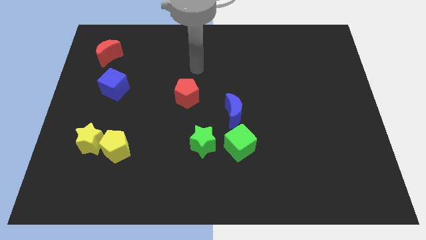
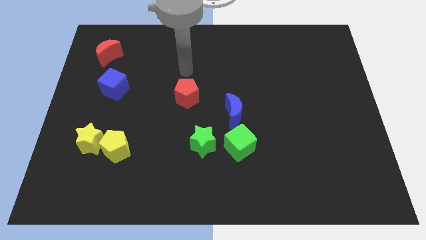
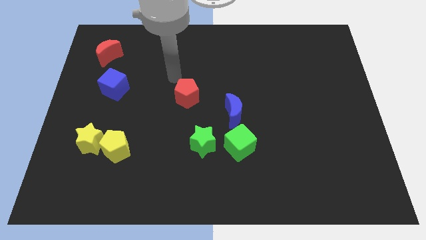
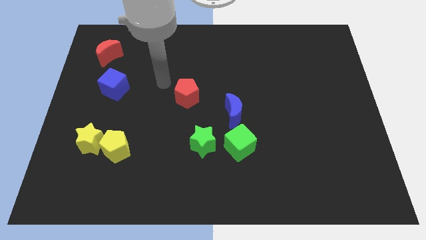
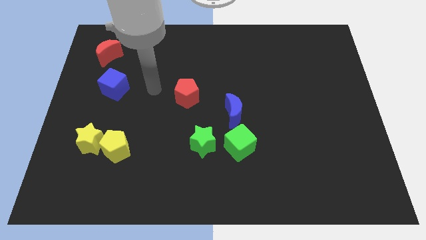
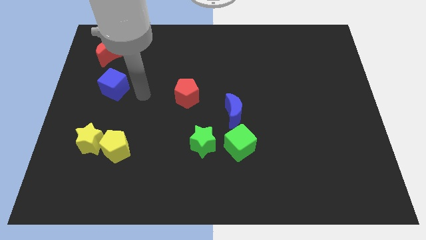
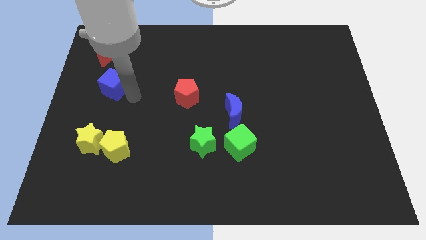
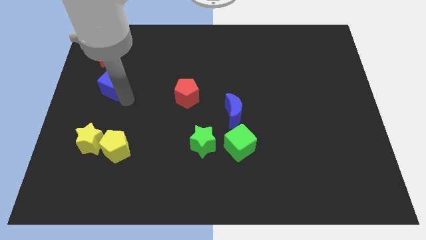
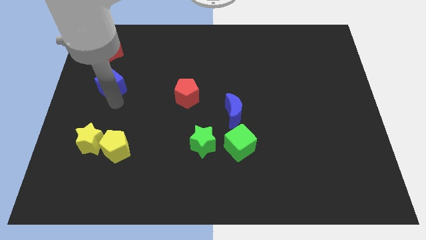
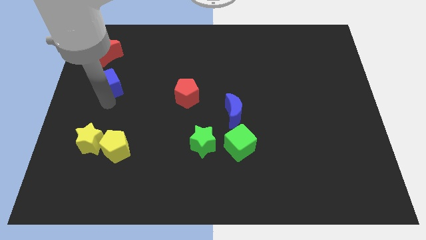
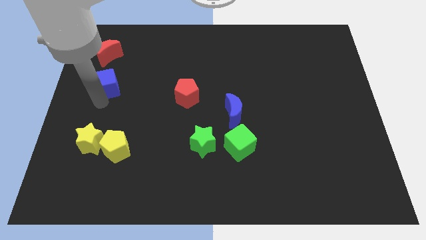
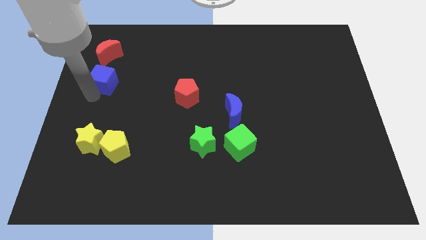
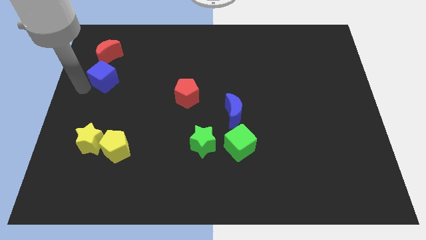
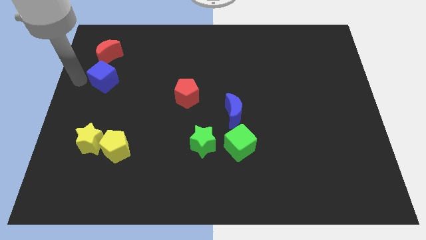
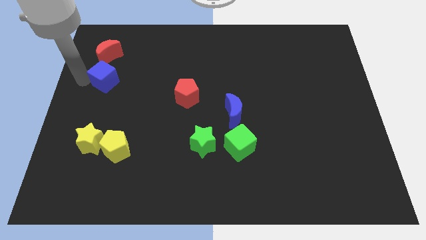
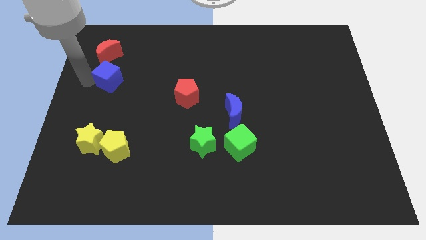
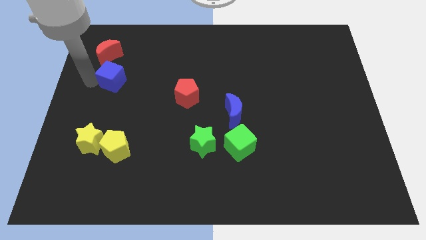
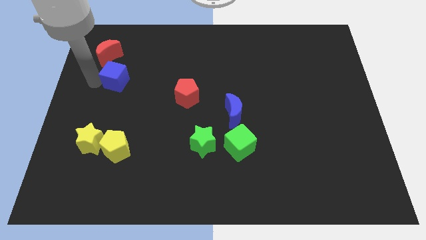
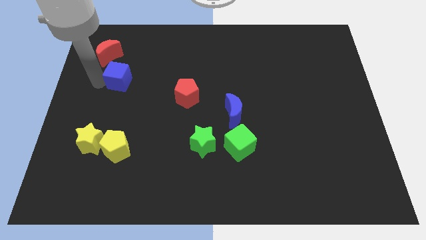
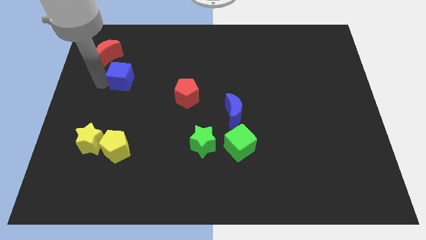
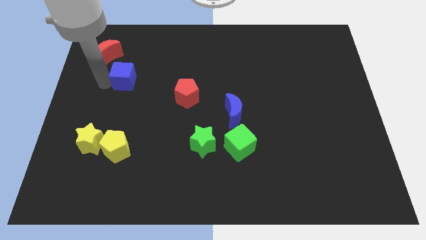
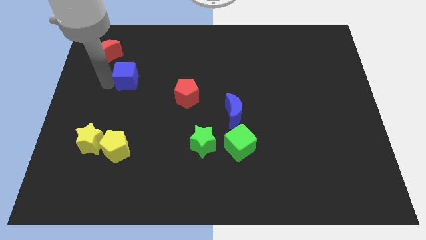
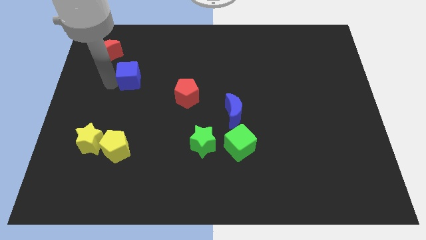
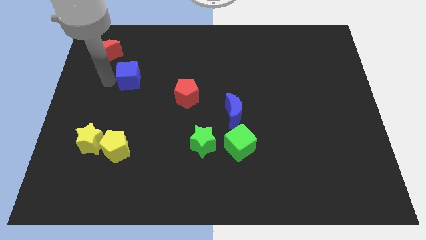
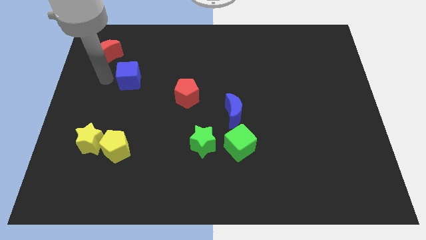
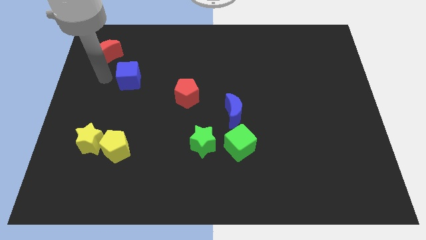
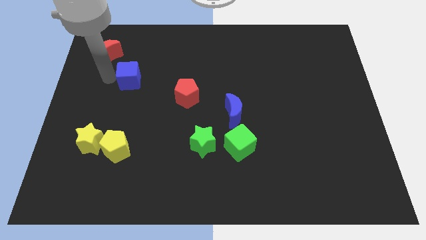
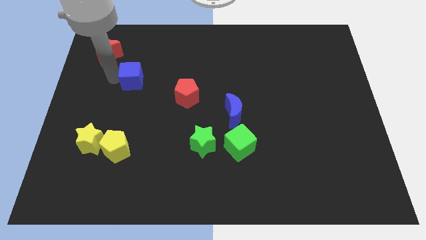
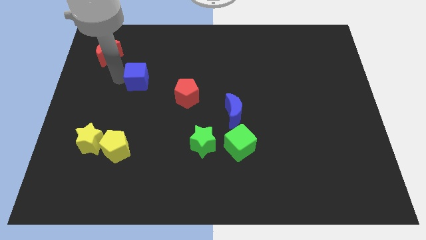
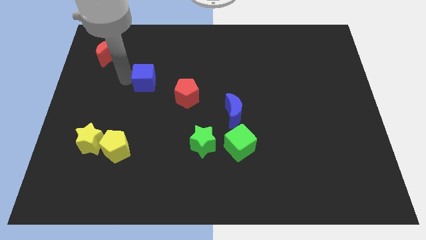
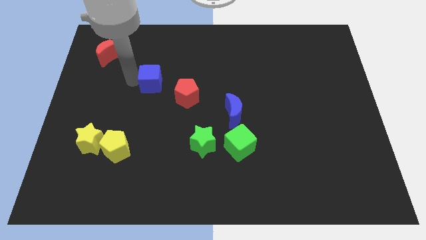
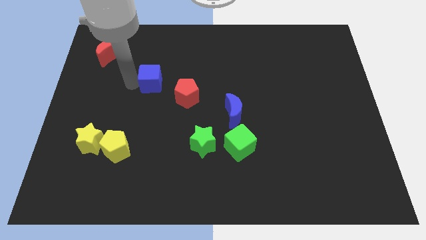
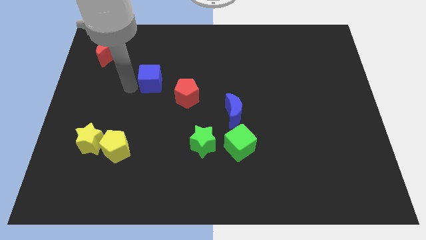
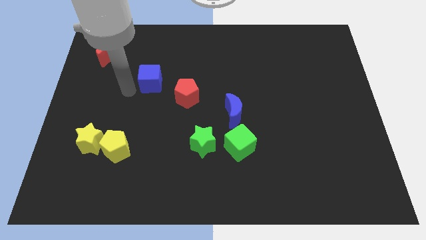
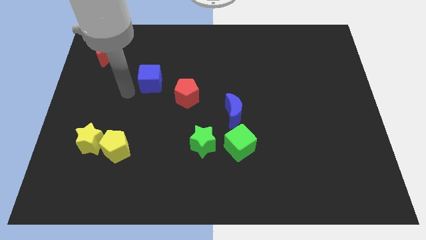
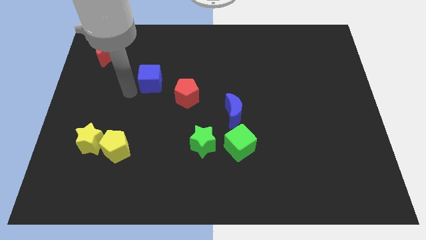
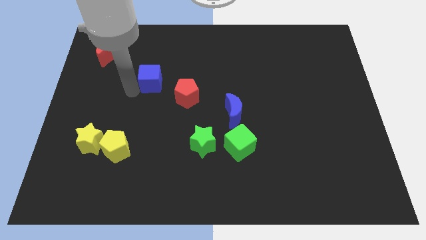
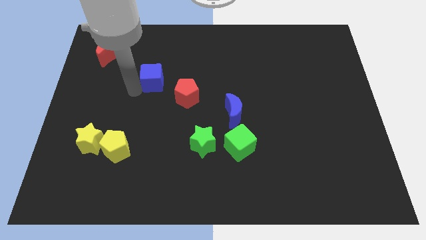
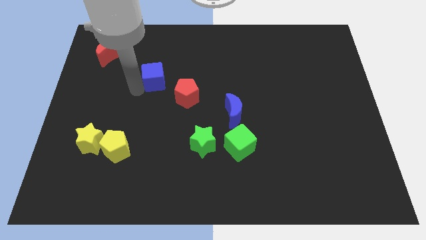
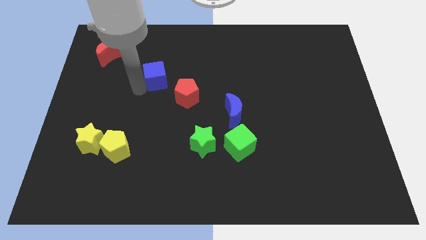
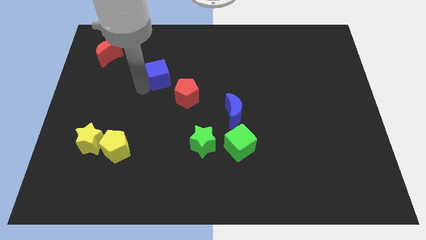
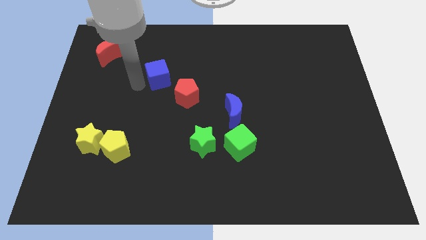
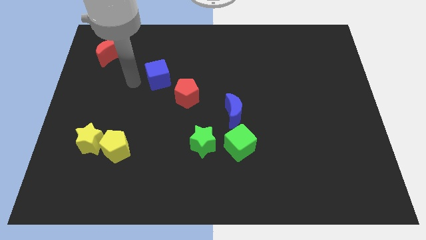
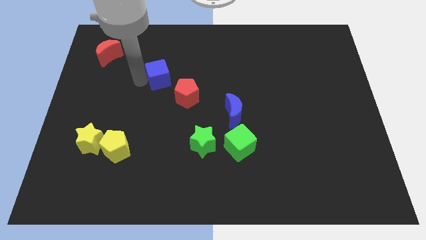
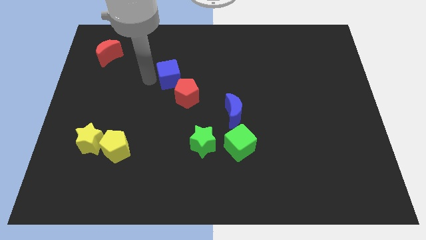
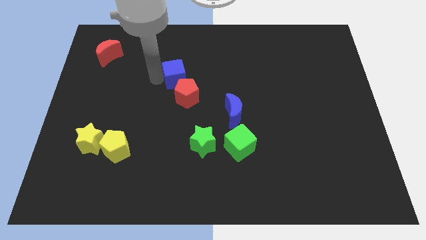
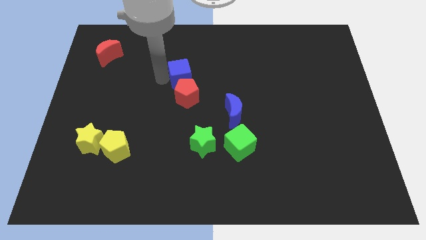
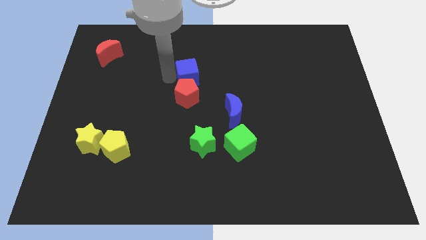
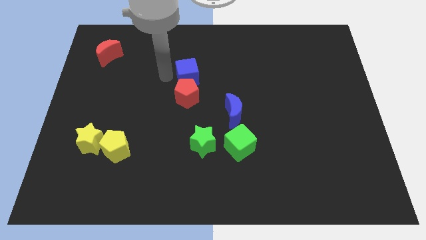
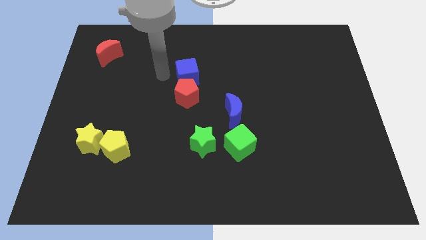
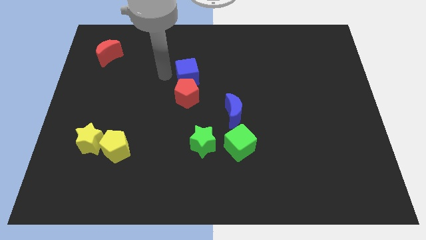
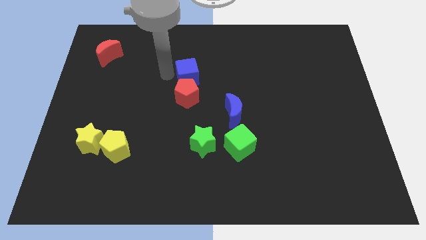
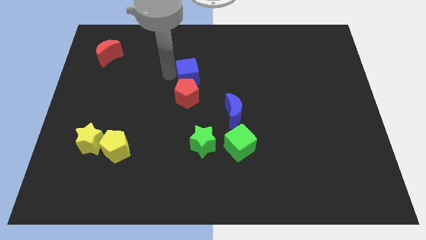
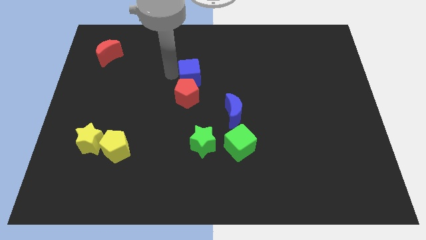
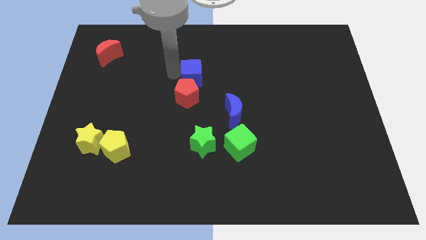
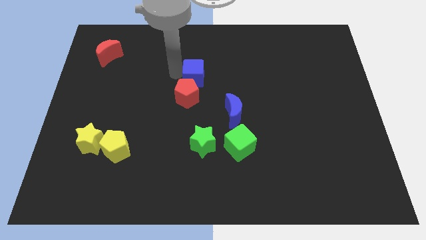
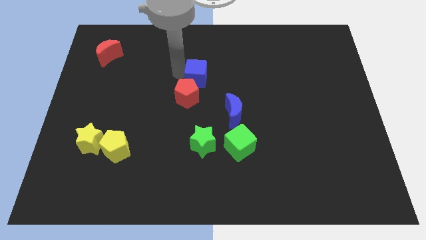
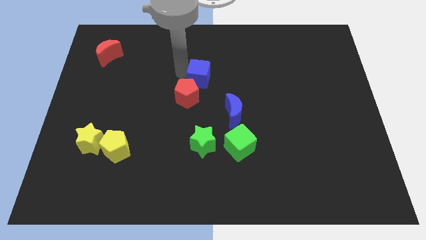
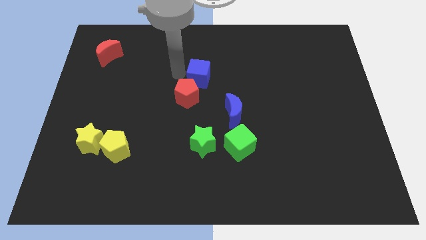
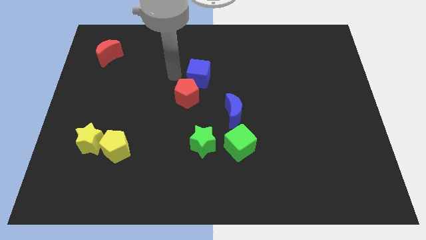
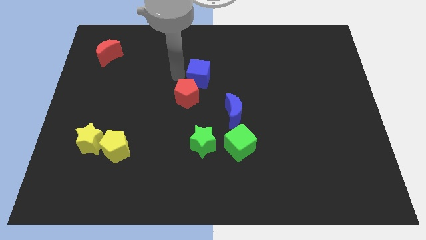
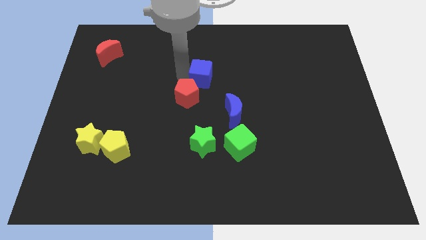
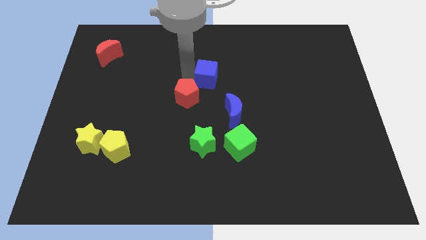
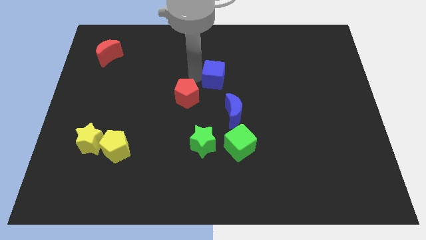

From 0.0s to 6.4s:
slide the blue cube to the top of the blue moon
